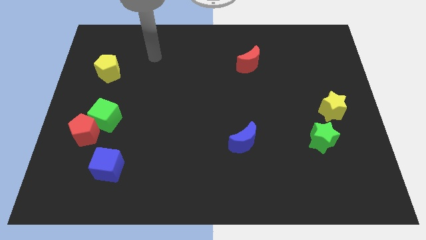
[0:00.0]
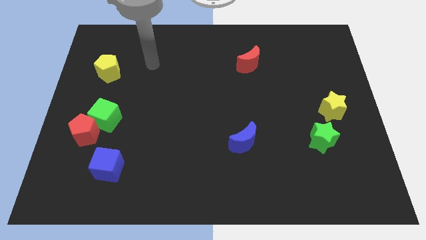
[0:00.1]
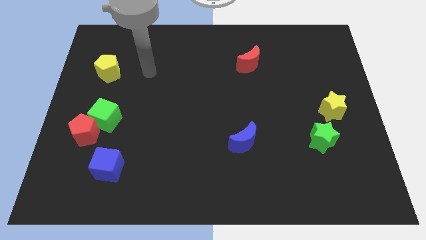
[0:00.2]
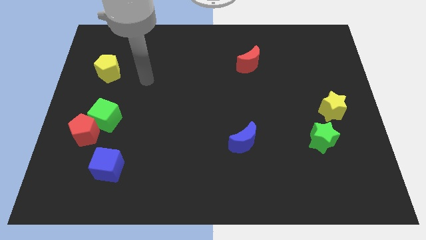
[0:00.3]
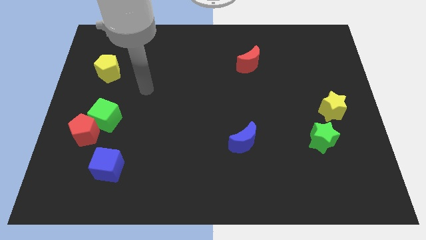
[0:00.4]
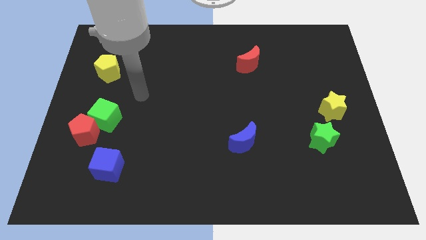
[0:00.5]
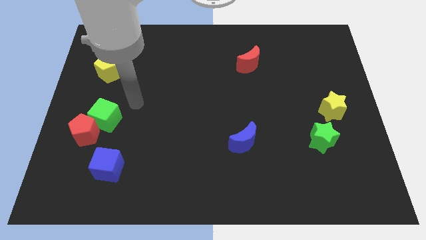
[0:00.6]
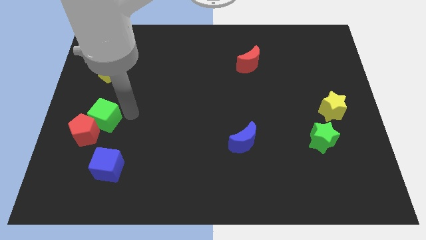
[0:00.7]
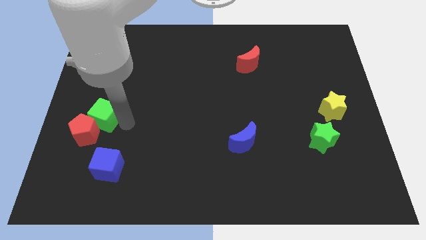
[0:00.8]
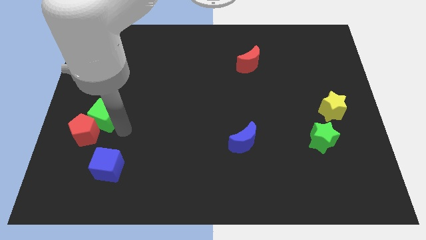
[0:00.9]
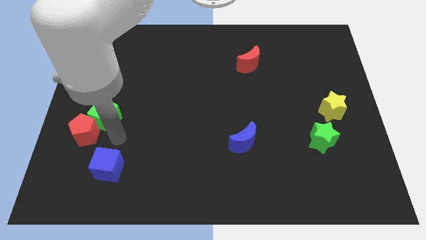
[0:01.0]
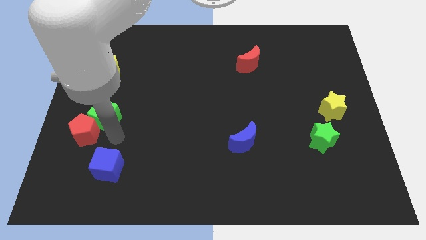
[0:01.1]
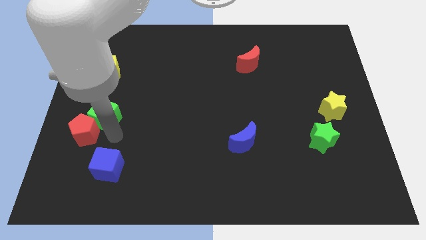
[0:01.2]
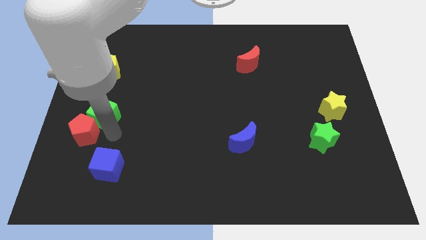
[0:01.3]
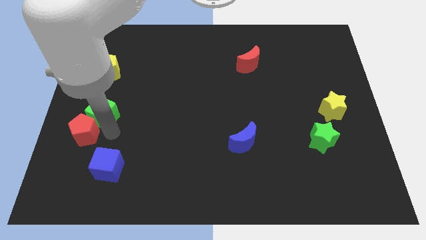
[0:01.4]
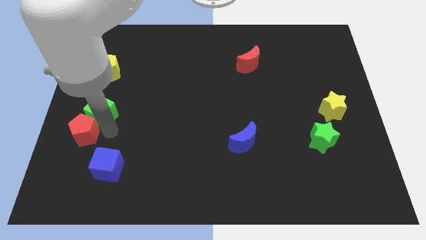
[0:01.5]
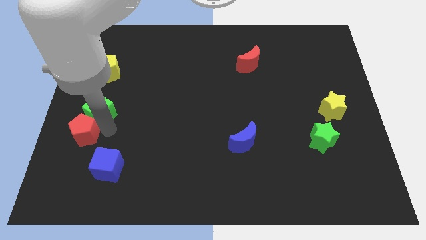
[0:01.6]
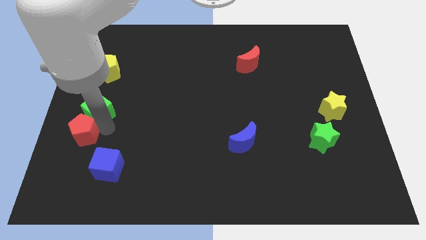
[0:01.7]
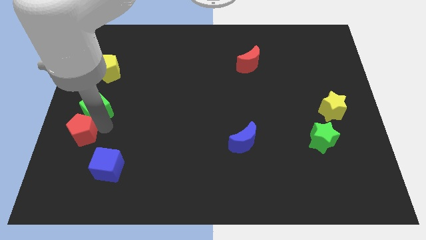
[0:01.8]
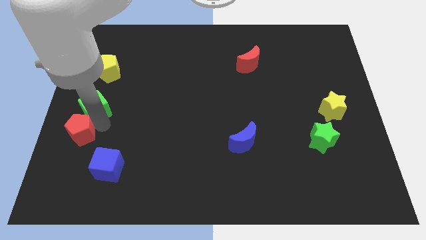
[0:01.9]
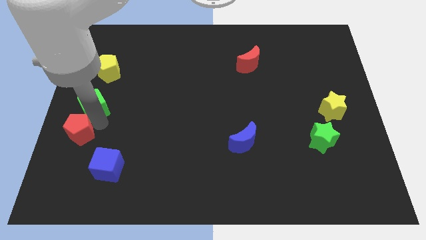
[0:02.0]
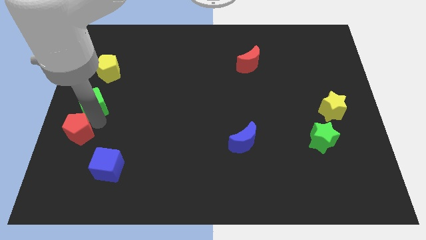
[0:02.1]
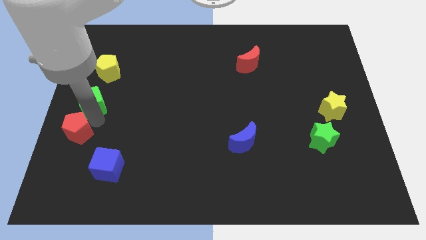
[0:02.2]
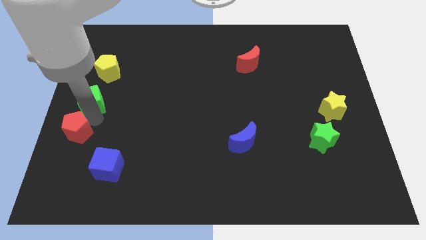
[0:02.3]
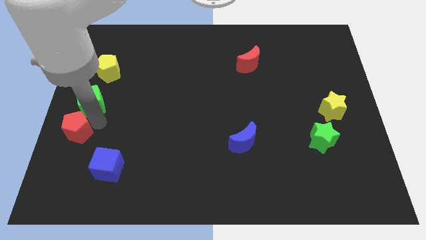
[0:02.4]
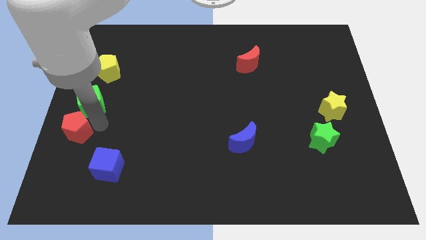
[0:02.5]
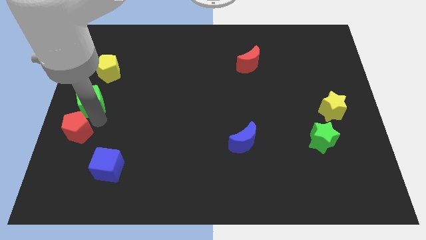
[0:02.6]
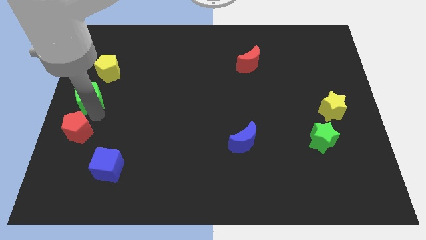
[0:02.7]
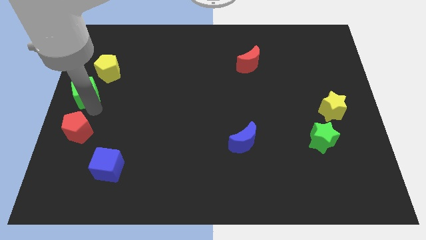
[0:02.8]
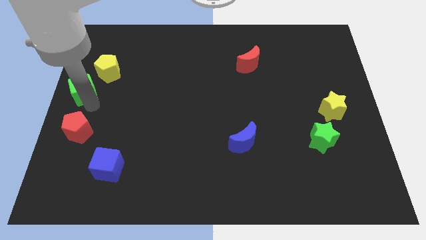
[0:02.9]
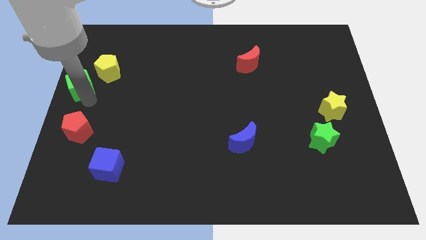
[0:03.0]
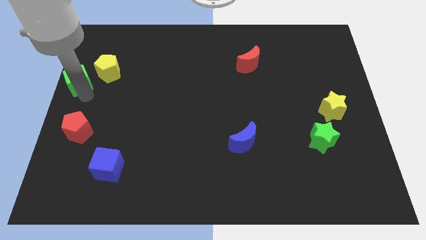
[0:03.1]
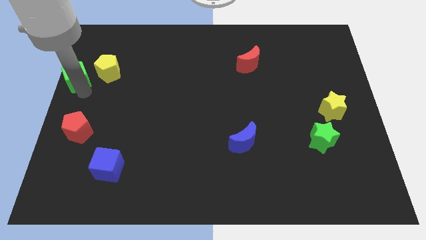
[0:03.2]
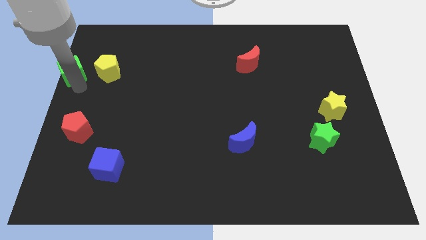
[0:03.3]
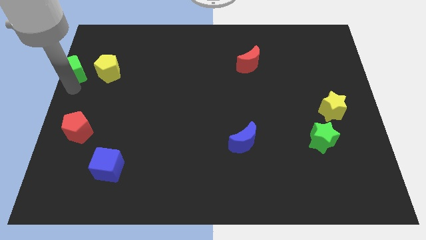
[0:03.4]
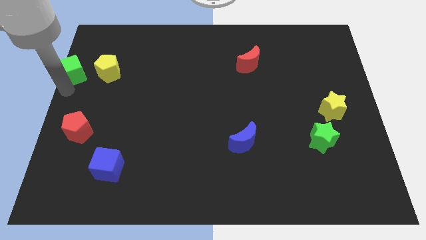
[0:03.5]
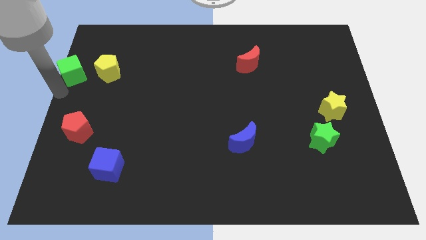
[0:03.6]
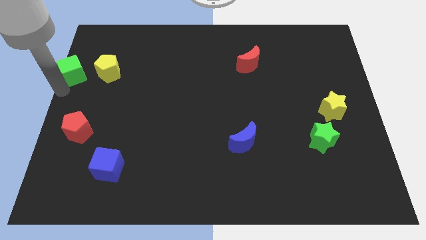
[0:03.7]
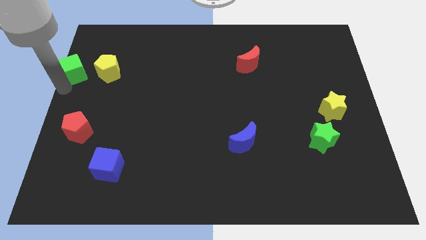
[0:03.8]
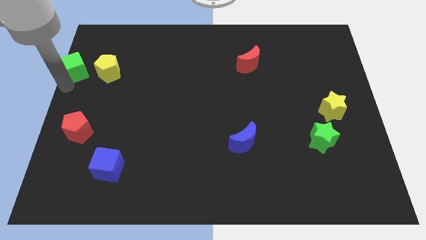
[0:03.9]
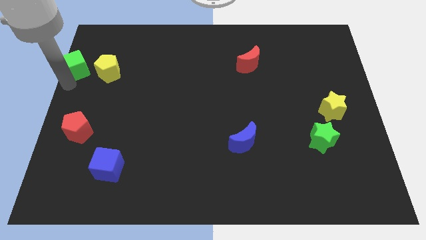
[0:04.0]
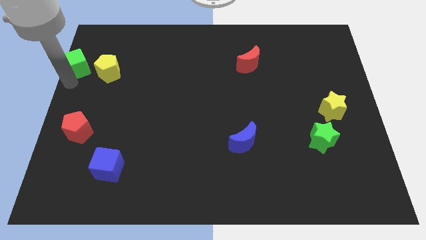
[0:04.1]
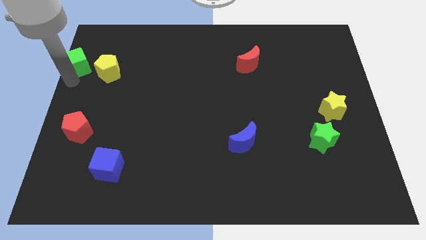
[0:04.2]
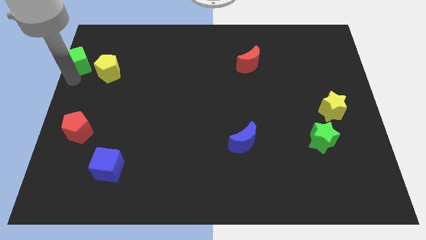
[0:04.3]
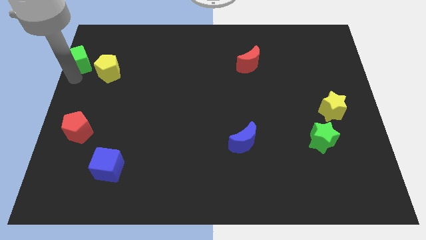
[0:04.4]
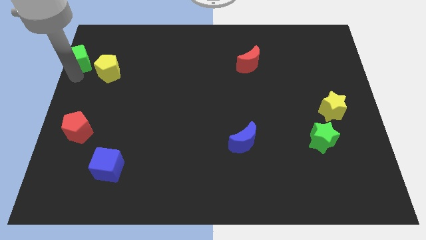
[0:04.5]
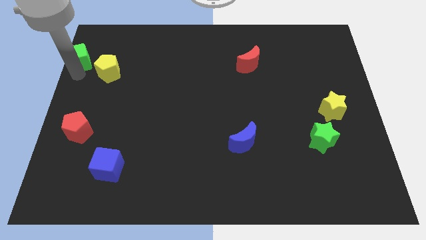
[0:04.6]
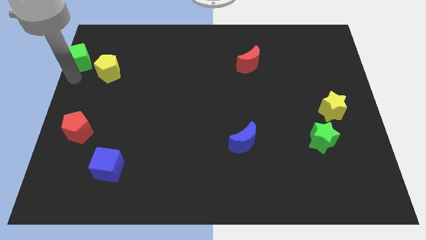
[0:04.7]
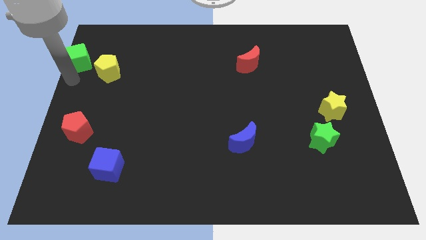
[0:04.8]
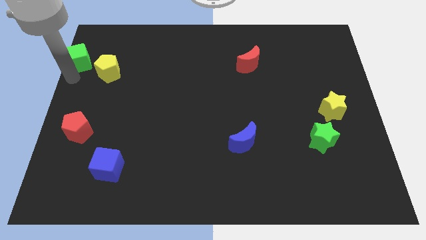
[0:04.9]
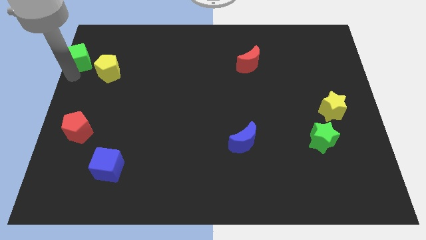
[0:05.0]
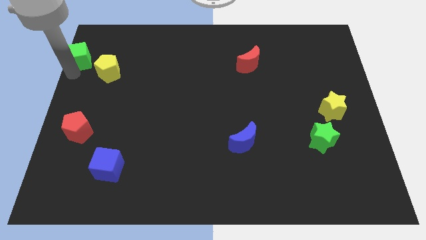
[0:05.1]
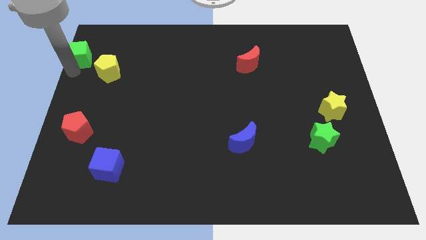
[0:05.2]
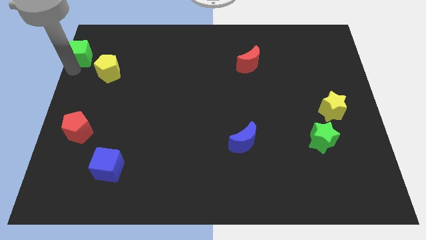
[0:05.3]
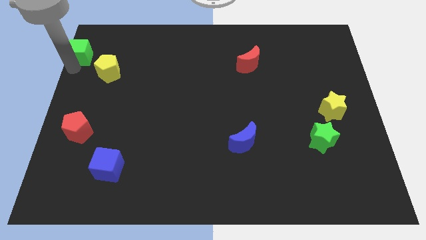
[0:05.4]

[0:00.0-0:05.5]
put the green cube to the top left corner

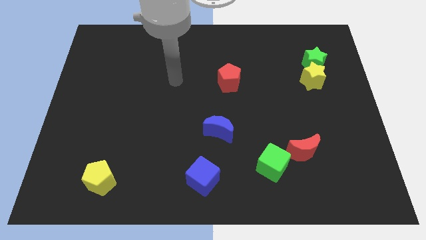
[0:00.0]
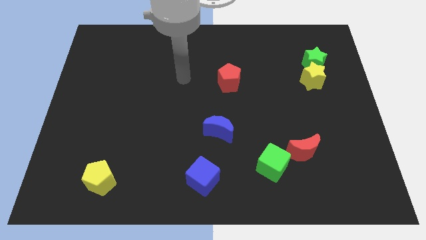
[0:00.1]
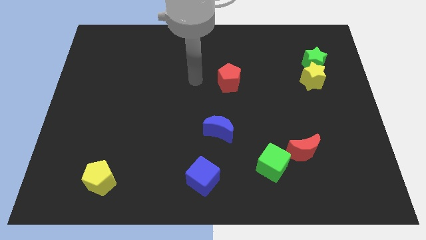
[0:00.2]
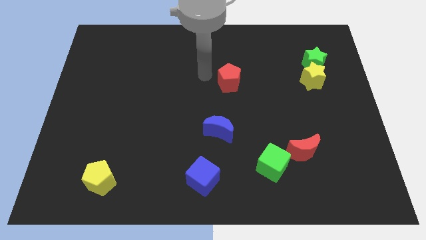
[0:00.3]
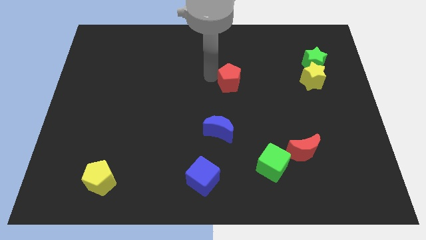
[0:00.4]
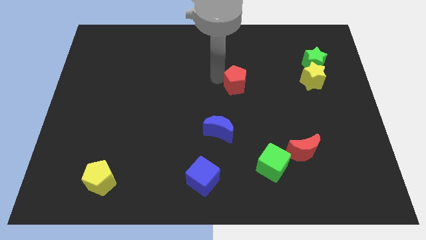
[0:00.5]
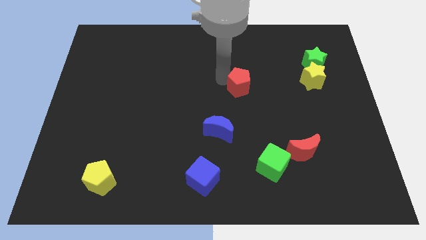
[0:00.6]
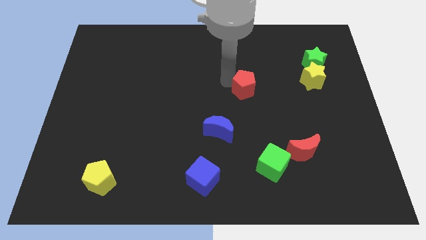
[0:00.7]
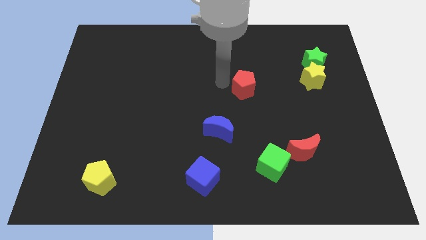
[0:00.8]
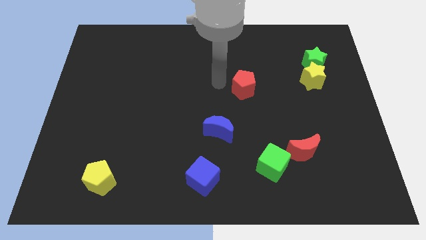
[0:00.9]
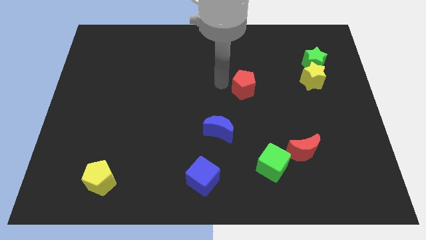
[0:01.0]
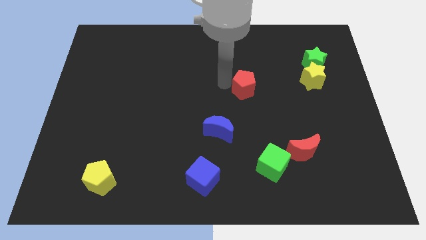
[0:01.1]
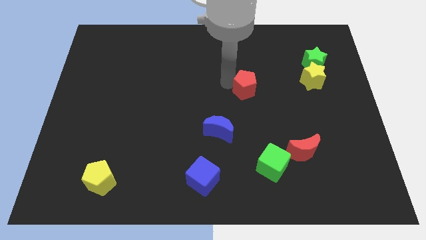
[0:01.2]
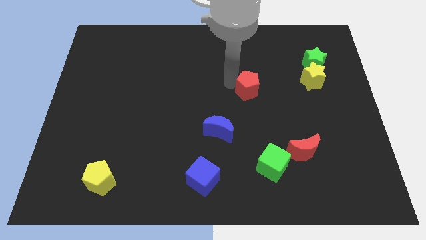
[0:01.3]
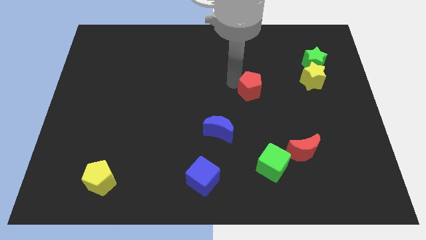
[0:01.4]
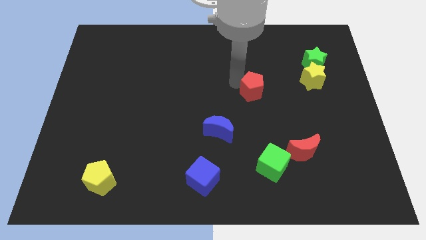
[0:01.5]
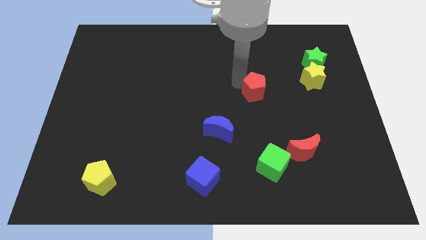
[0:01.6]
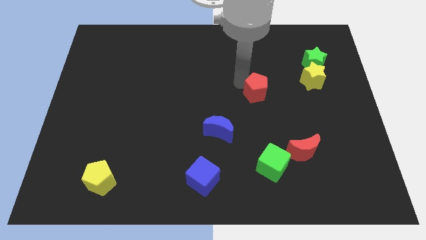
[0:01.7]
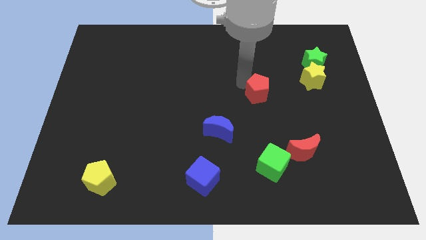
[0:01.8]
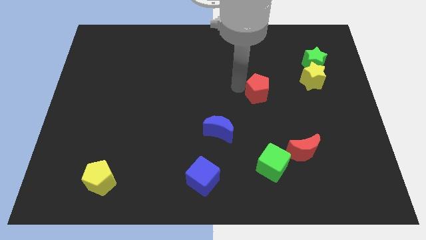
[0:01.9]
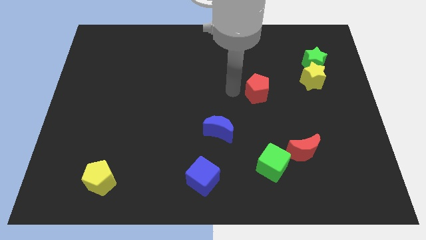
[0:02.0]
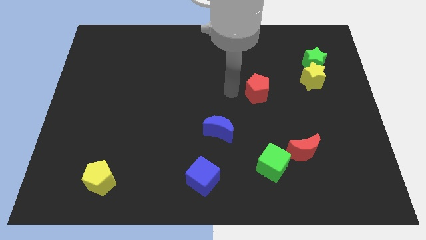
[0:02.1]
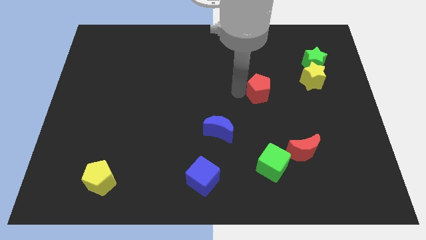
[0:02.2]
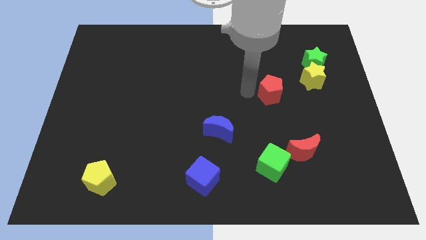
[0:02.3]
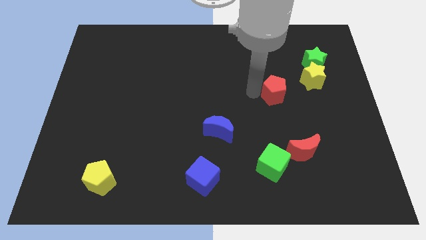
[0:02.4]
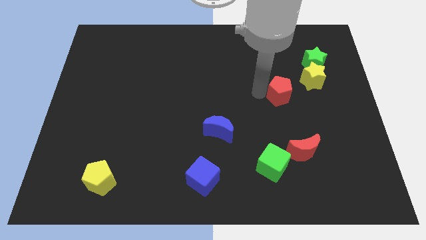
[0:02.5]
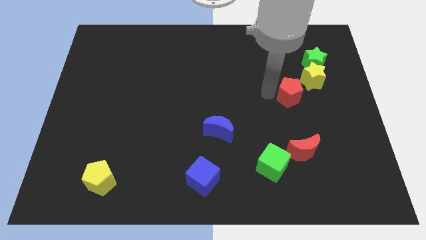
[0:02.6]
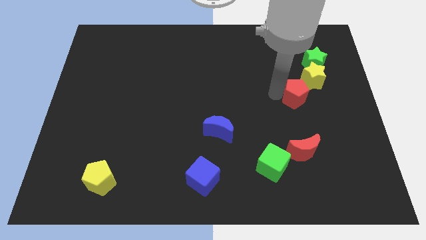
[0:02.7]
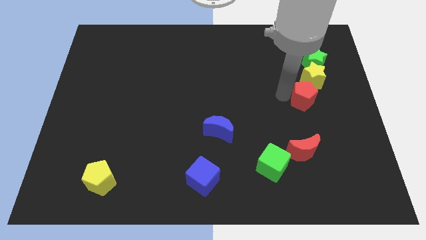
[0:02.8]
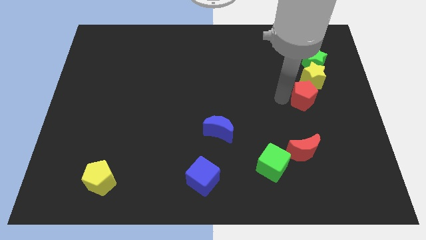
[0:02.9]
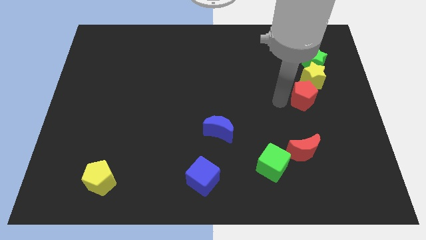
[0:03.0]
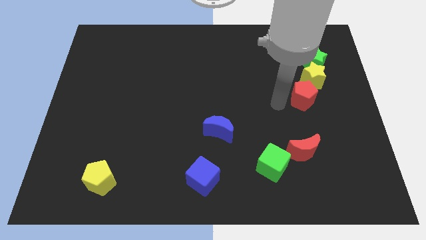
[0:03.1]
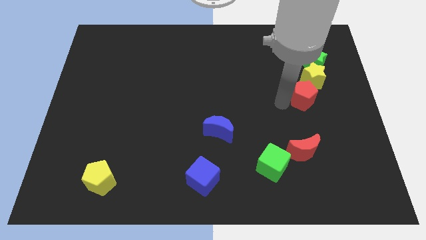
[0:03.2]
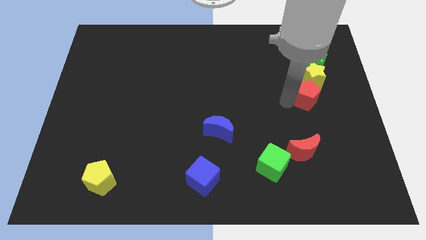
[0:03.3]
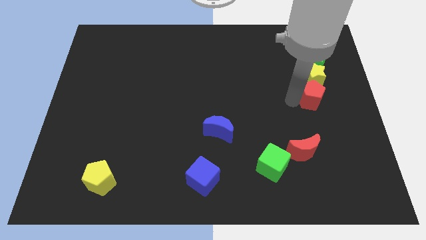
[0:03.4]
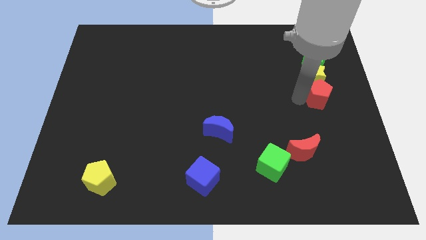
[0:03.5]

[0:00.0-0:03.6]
slide the red pentagon to the right side
